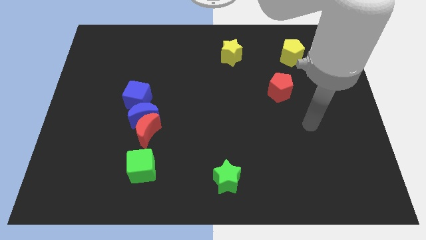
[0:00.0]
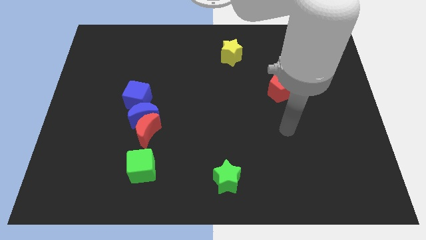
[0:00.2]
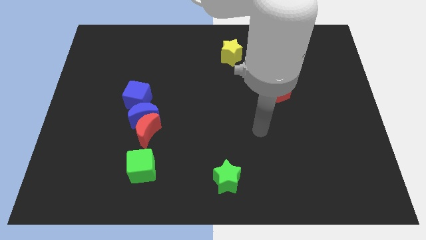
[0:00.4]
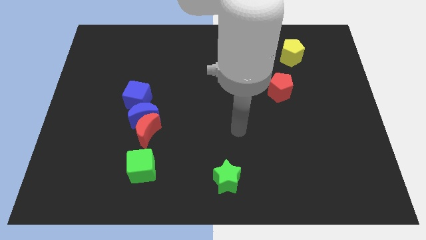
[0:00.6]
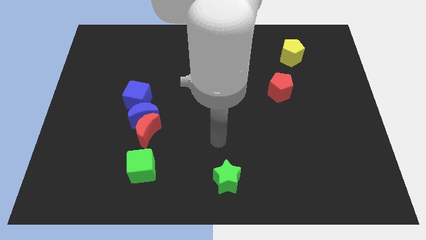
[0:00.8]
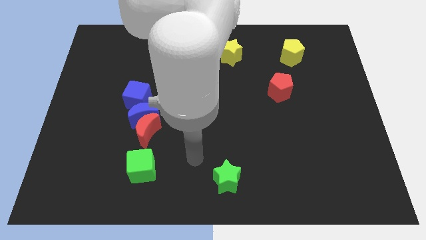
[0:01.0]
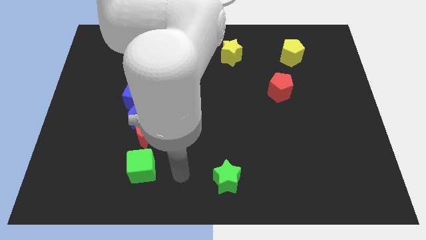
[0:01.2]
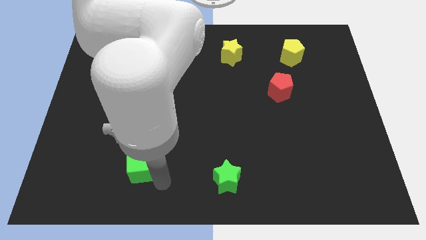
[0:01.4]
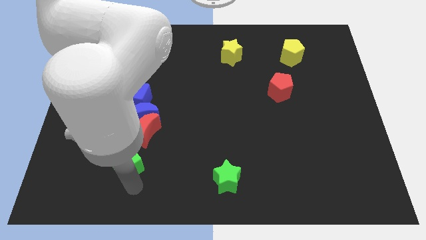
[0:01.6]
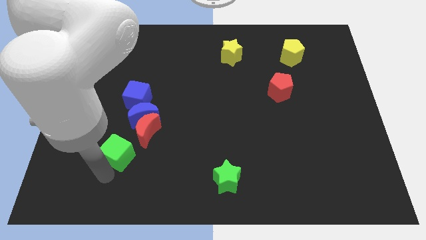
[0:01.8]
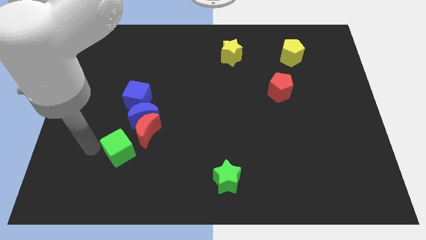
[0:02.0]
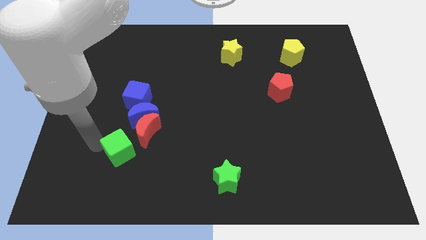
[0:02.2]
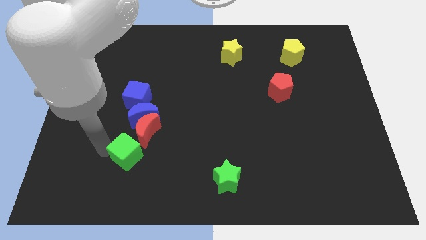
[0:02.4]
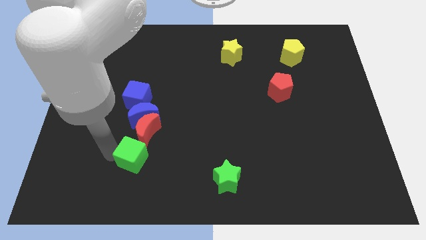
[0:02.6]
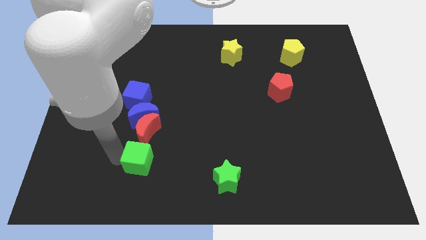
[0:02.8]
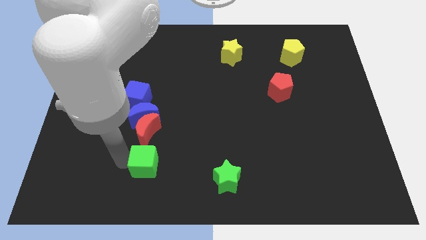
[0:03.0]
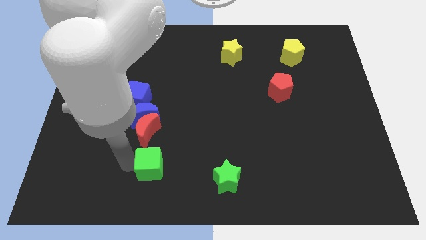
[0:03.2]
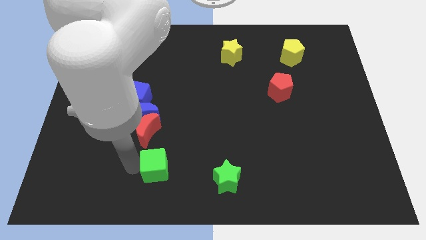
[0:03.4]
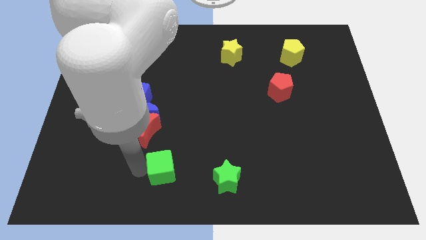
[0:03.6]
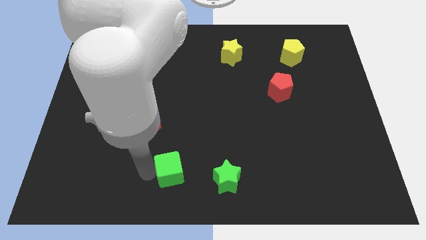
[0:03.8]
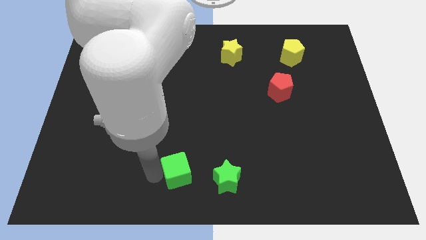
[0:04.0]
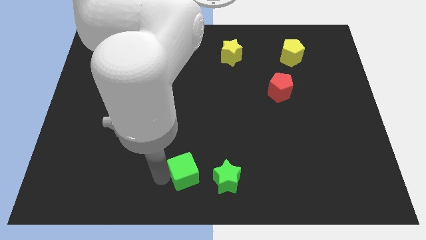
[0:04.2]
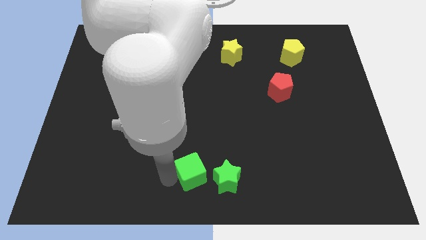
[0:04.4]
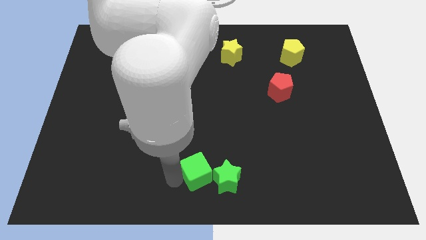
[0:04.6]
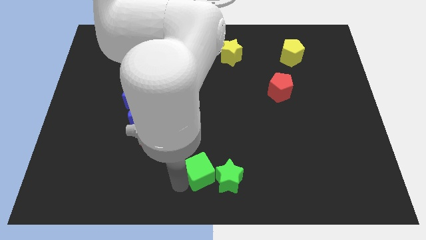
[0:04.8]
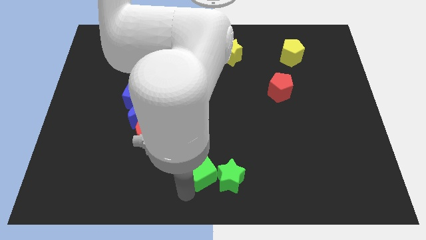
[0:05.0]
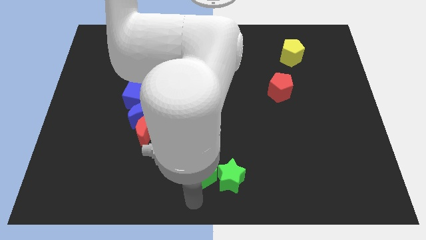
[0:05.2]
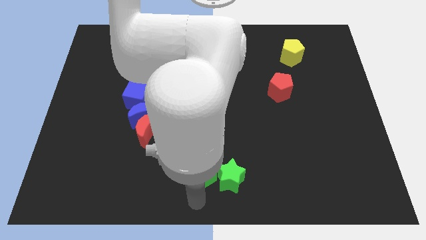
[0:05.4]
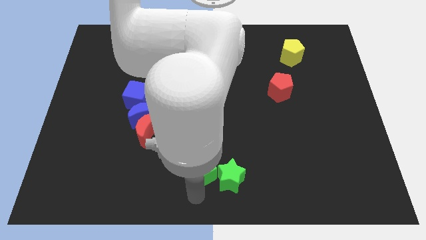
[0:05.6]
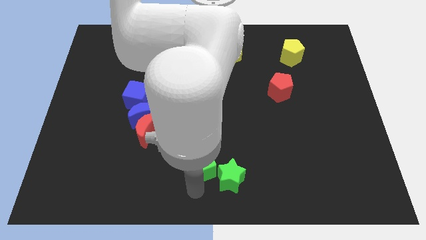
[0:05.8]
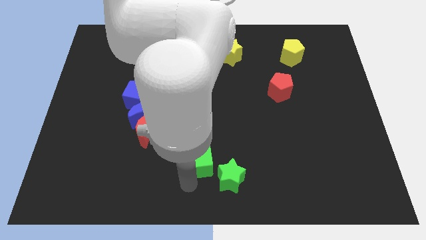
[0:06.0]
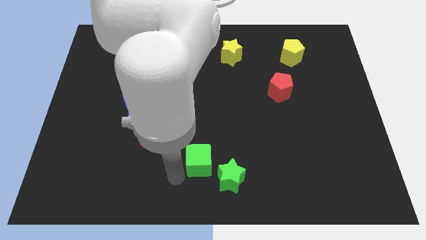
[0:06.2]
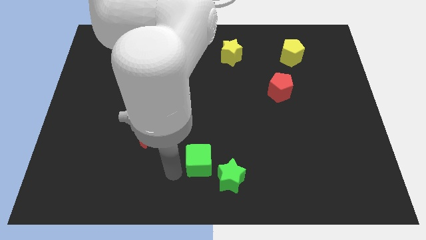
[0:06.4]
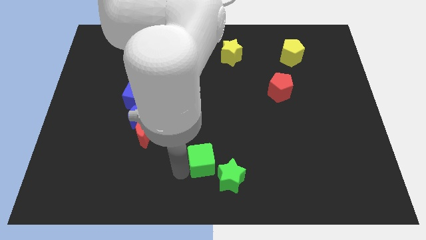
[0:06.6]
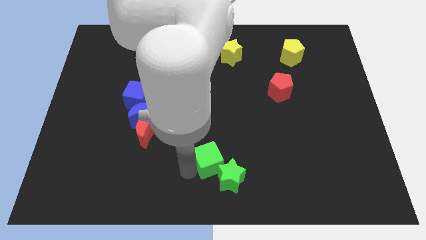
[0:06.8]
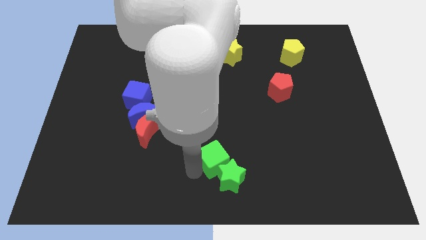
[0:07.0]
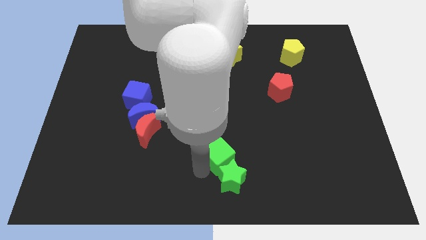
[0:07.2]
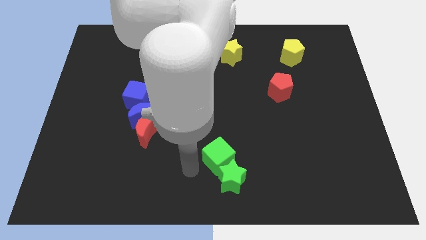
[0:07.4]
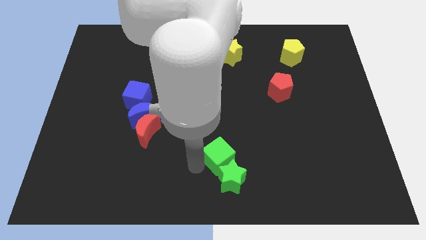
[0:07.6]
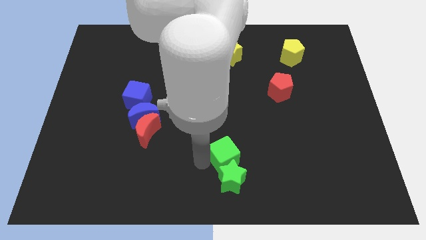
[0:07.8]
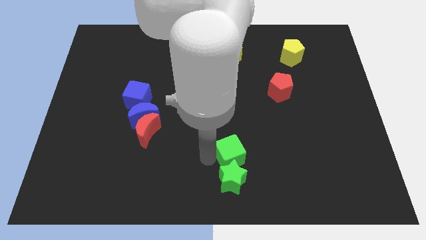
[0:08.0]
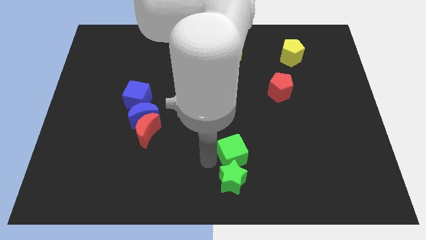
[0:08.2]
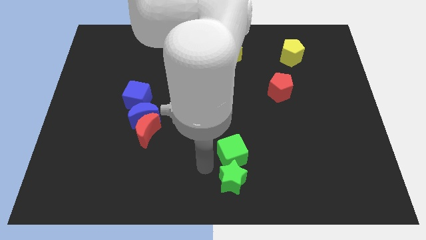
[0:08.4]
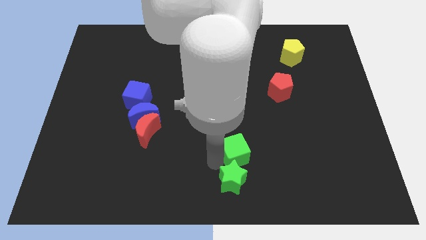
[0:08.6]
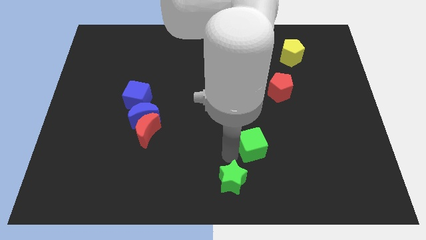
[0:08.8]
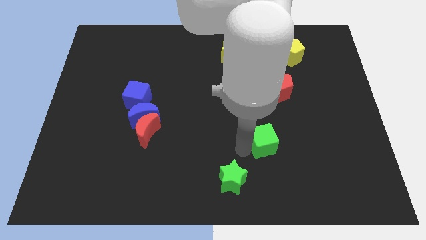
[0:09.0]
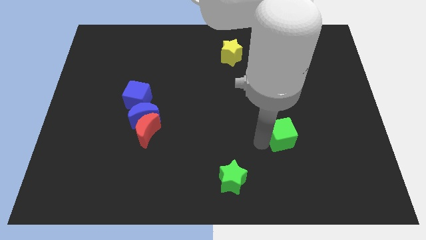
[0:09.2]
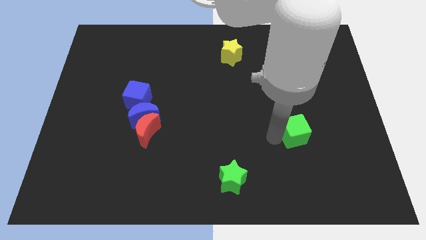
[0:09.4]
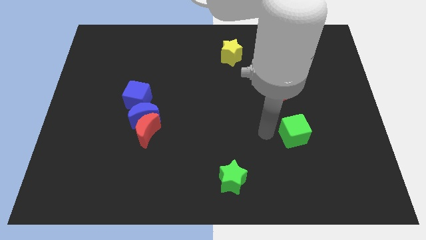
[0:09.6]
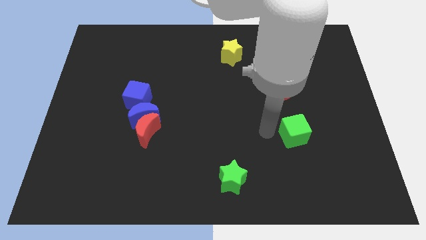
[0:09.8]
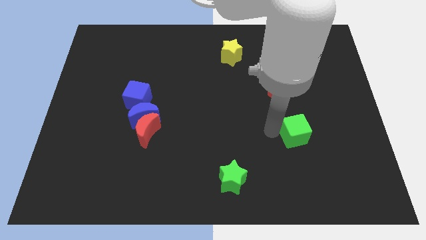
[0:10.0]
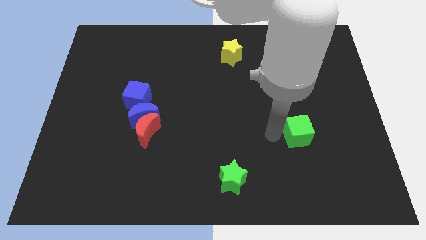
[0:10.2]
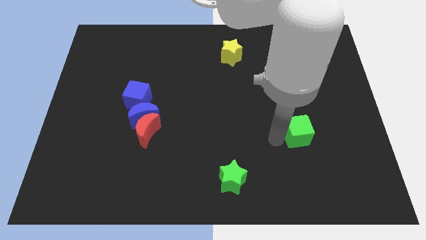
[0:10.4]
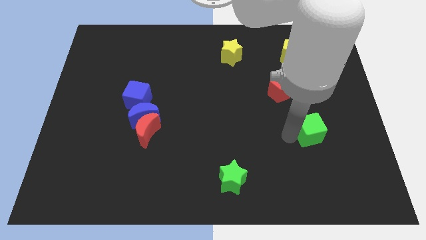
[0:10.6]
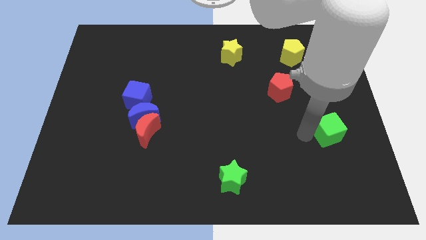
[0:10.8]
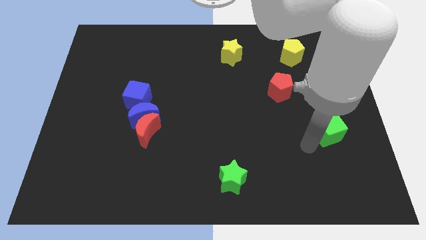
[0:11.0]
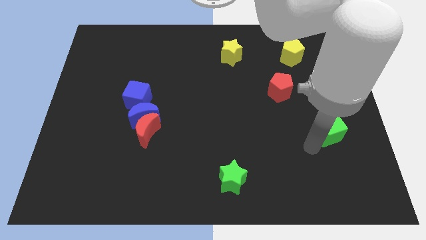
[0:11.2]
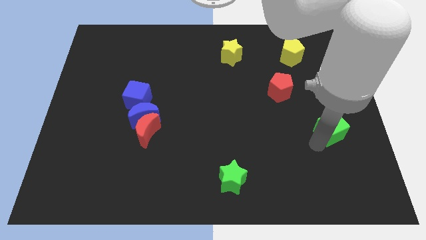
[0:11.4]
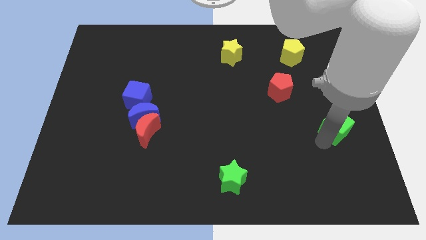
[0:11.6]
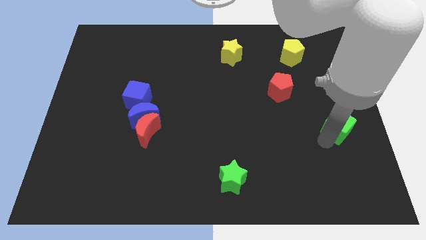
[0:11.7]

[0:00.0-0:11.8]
slide the green cube to the right side
